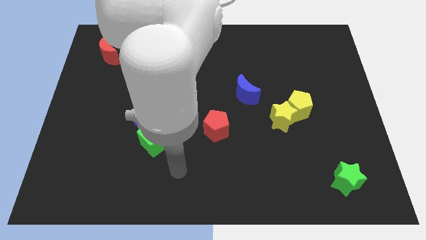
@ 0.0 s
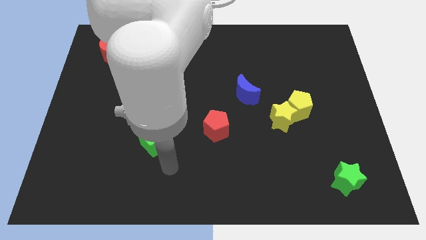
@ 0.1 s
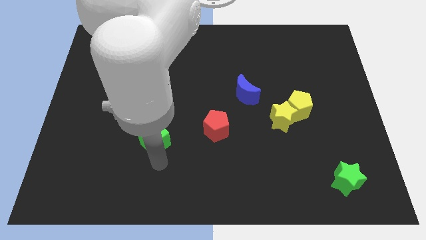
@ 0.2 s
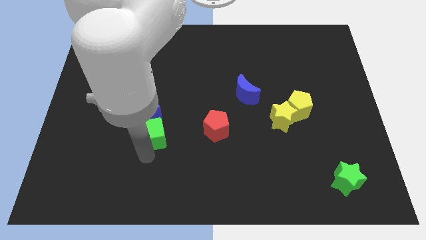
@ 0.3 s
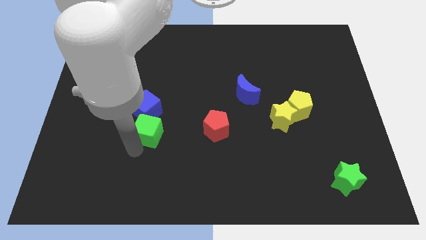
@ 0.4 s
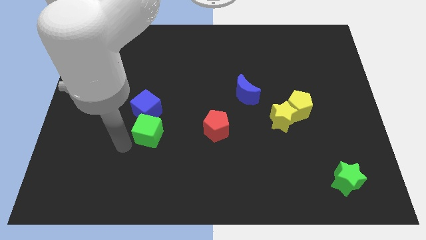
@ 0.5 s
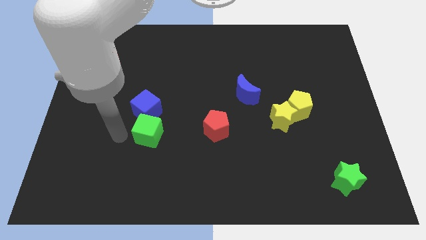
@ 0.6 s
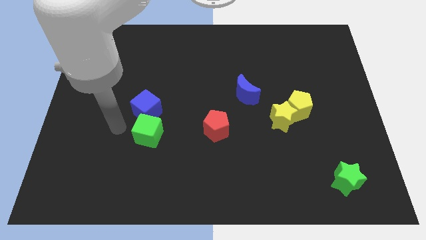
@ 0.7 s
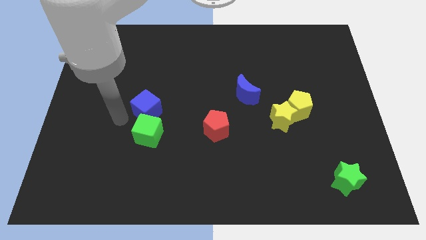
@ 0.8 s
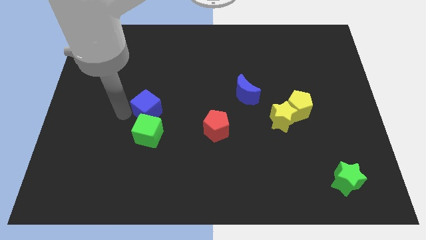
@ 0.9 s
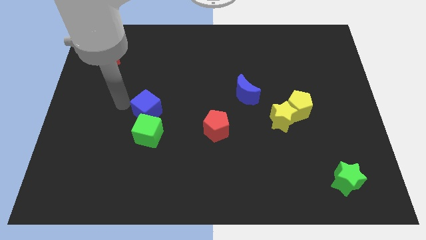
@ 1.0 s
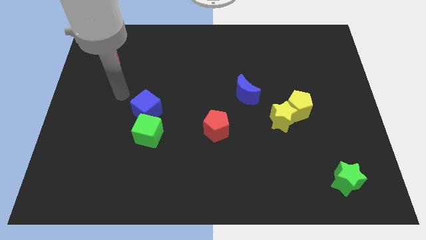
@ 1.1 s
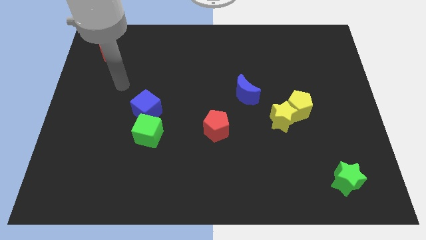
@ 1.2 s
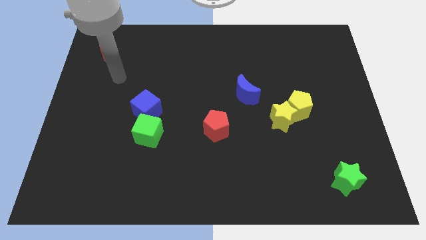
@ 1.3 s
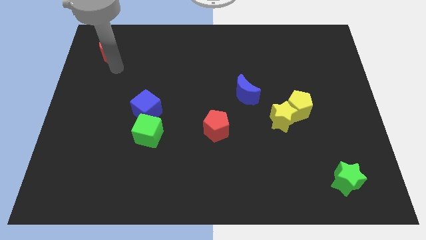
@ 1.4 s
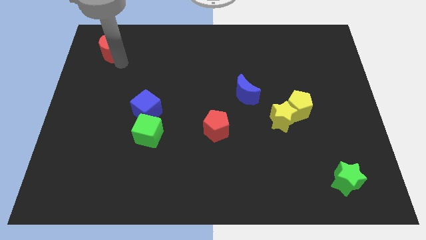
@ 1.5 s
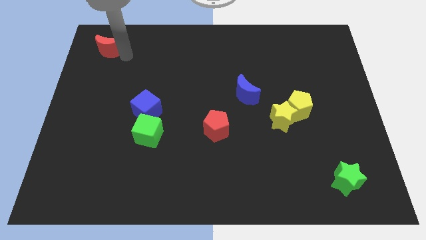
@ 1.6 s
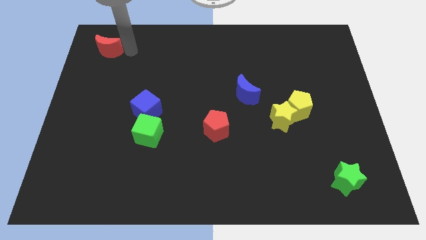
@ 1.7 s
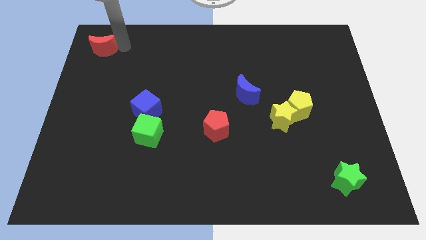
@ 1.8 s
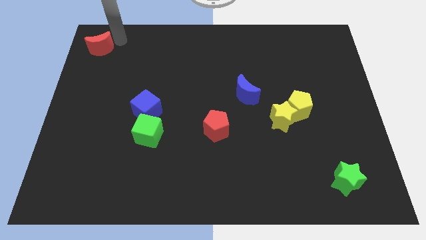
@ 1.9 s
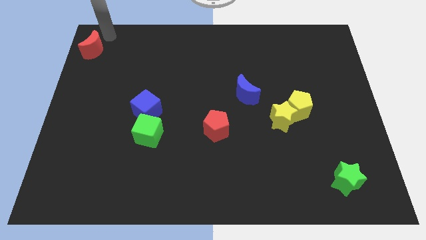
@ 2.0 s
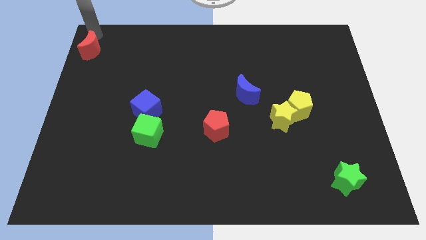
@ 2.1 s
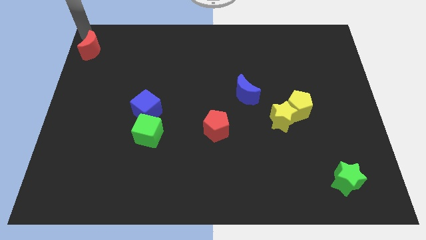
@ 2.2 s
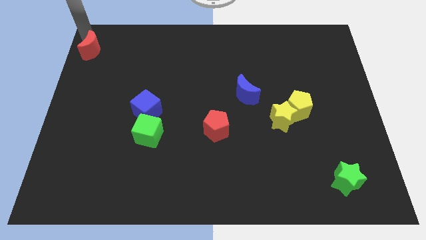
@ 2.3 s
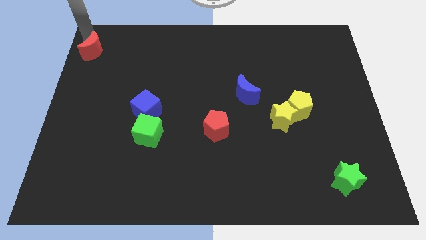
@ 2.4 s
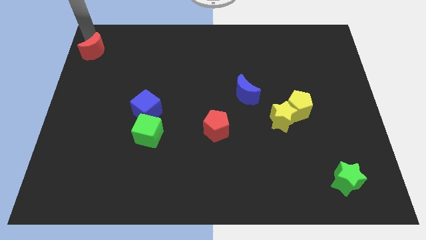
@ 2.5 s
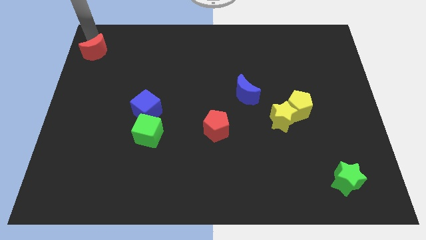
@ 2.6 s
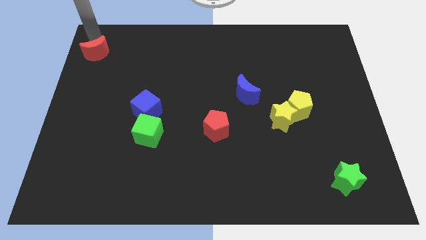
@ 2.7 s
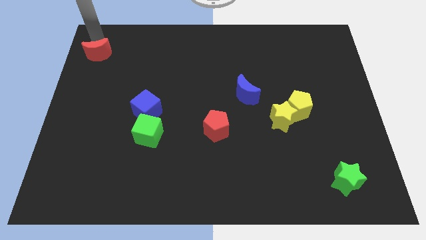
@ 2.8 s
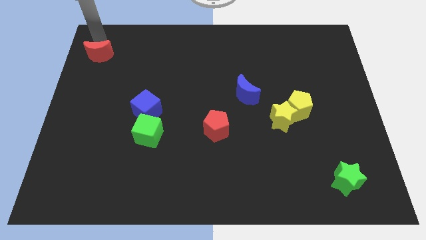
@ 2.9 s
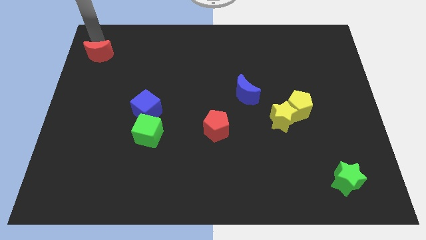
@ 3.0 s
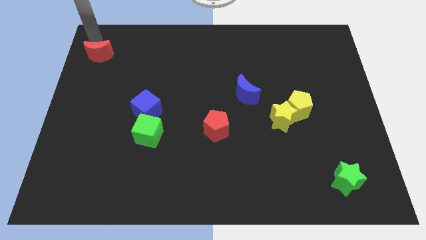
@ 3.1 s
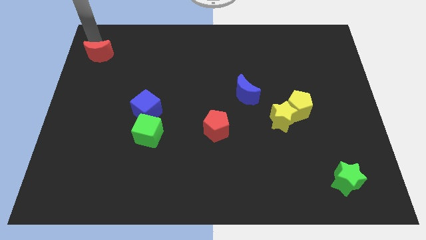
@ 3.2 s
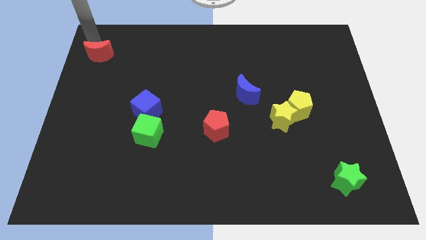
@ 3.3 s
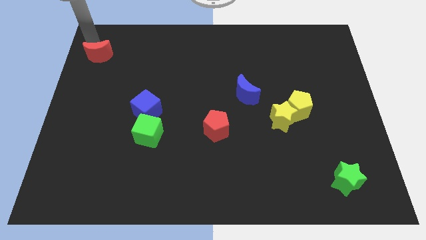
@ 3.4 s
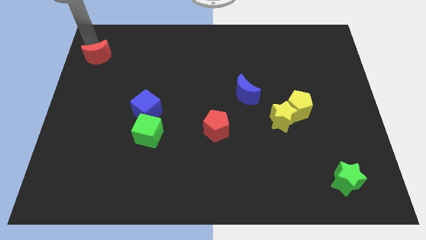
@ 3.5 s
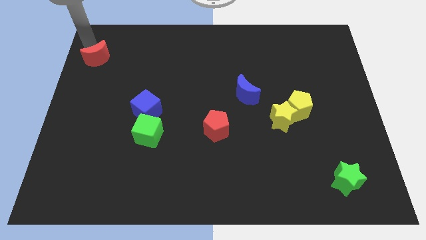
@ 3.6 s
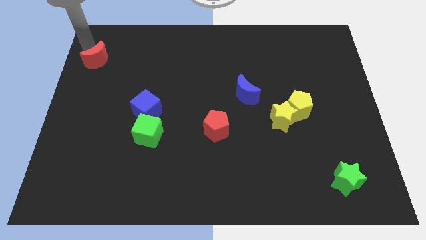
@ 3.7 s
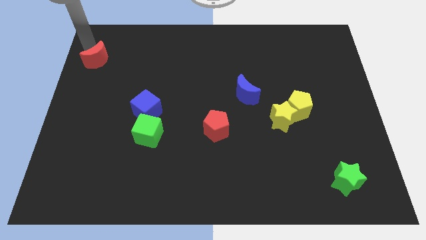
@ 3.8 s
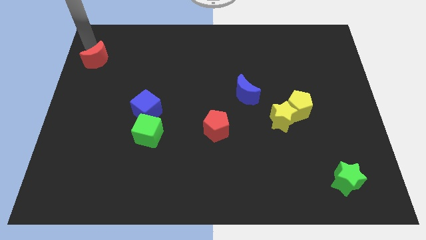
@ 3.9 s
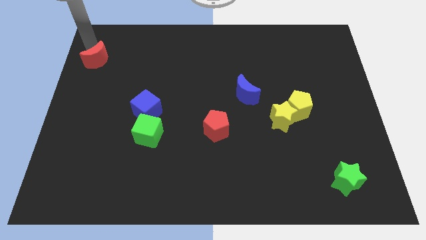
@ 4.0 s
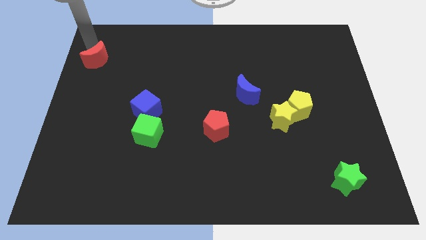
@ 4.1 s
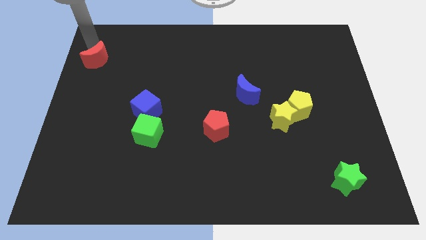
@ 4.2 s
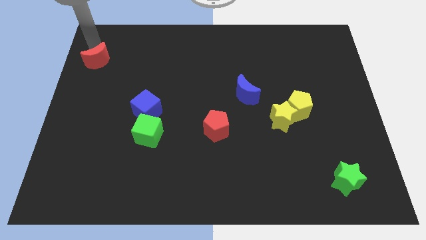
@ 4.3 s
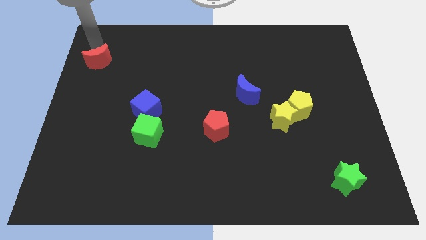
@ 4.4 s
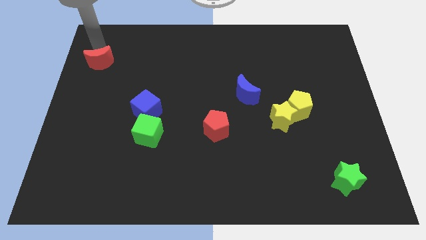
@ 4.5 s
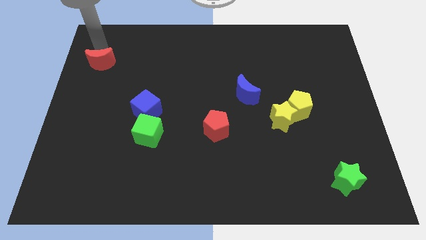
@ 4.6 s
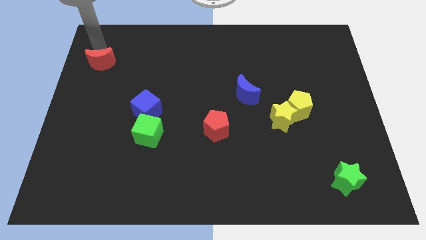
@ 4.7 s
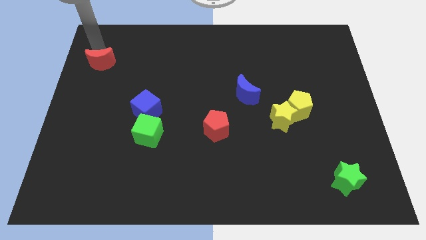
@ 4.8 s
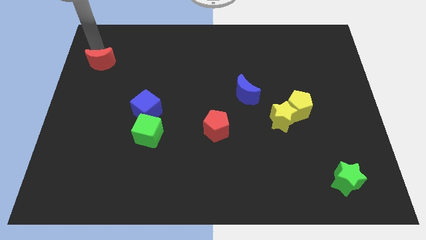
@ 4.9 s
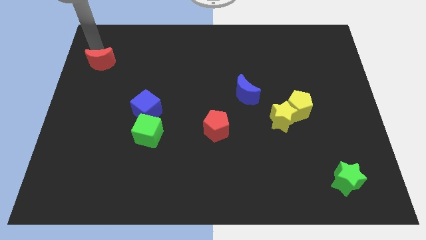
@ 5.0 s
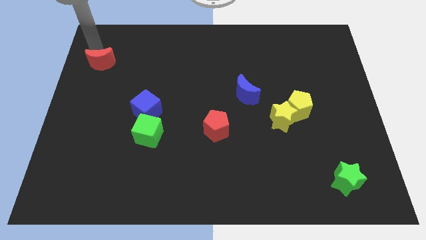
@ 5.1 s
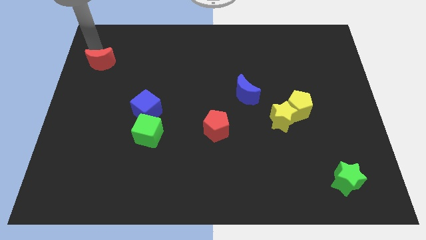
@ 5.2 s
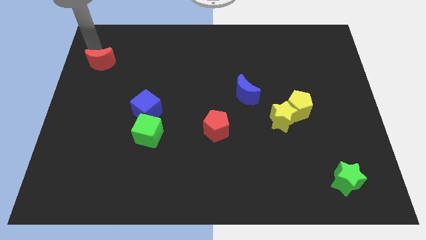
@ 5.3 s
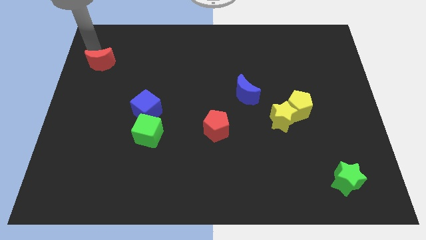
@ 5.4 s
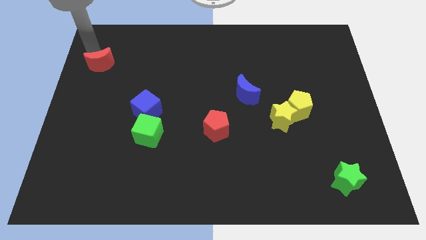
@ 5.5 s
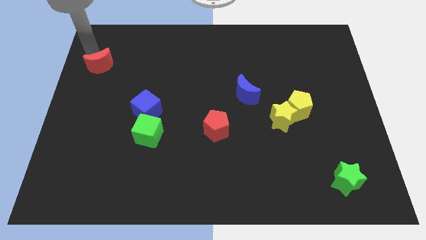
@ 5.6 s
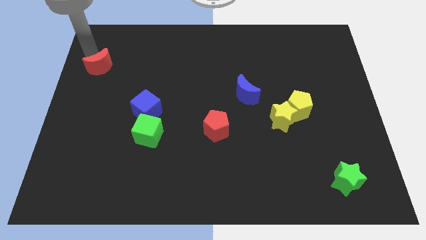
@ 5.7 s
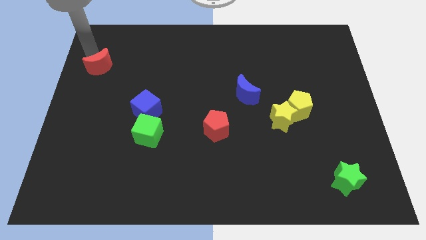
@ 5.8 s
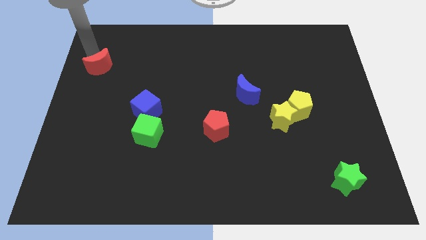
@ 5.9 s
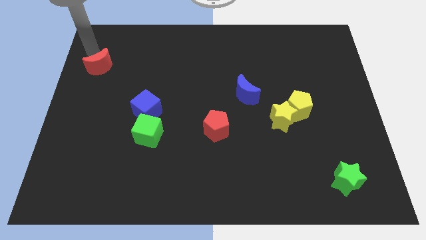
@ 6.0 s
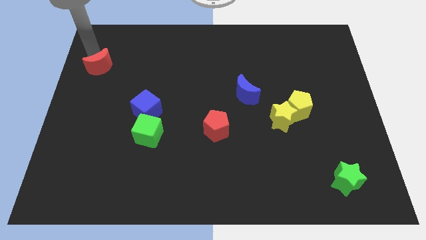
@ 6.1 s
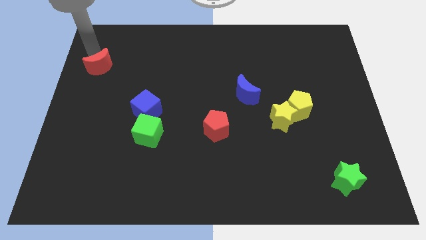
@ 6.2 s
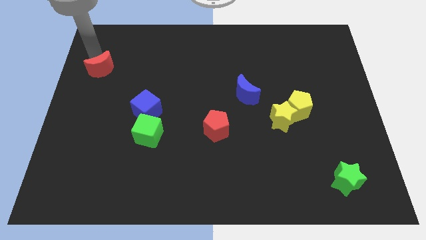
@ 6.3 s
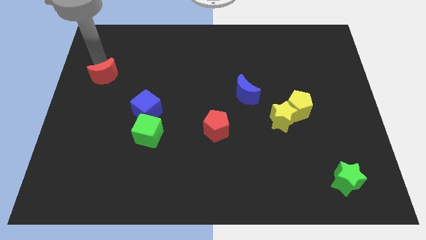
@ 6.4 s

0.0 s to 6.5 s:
slightly slide the red moon down

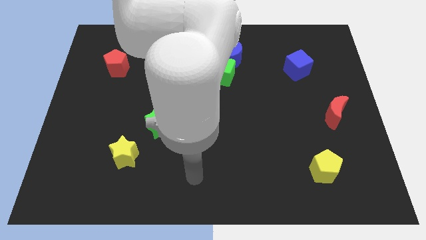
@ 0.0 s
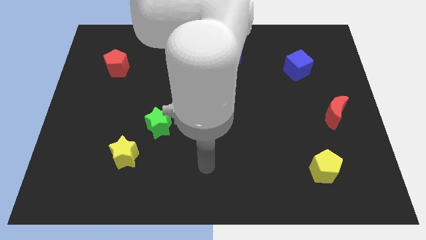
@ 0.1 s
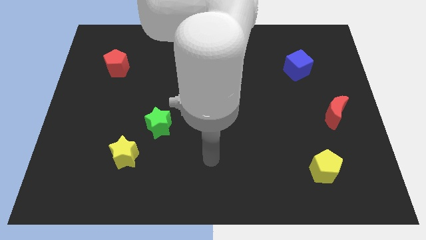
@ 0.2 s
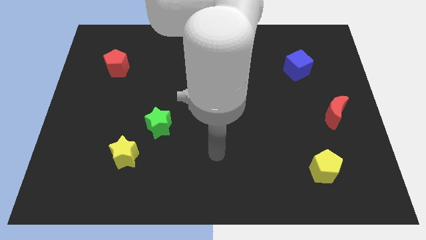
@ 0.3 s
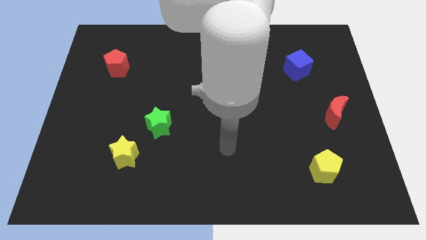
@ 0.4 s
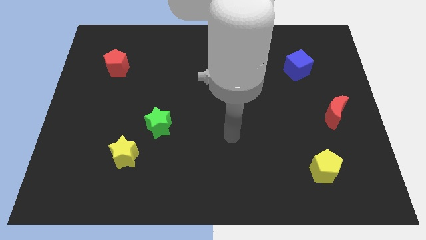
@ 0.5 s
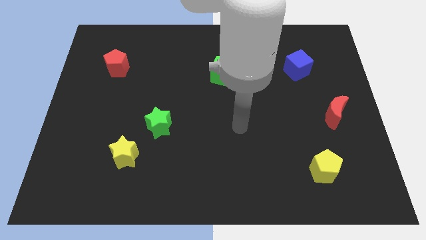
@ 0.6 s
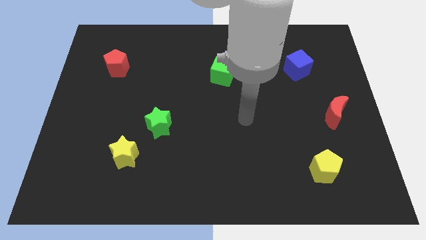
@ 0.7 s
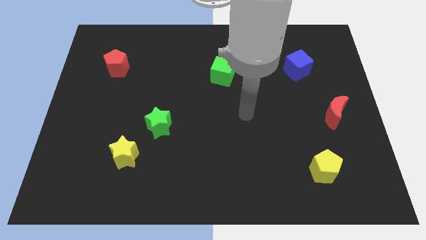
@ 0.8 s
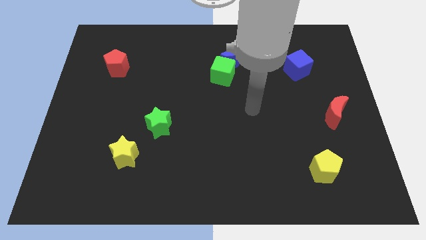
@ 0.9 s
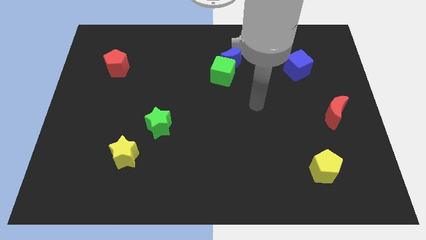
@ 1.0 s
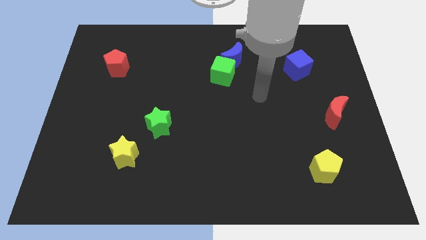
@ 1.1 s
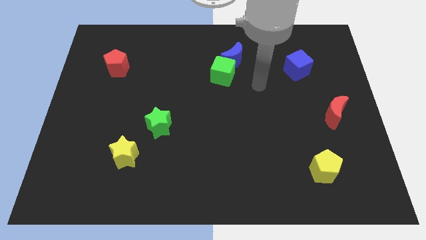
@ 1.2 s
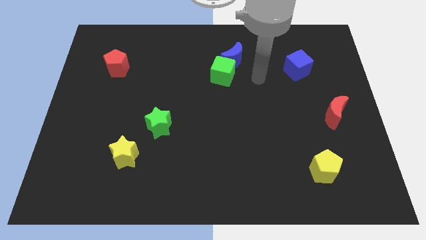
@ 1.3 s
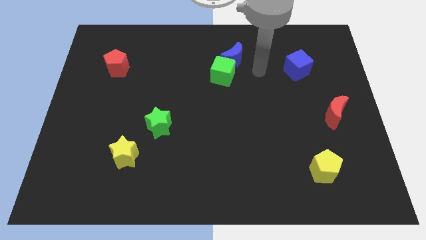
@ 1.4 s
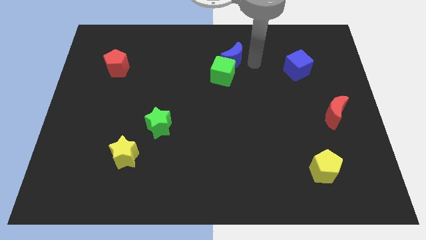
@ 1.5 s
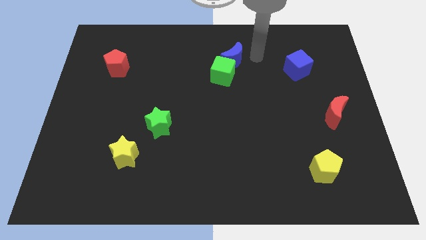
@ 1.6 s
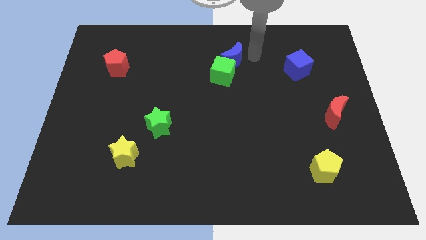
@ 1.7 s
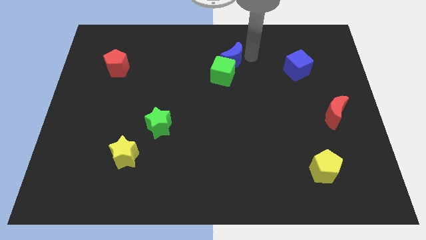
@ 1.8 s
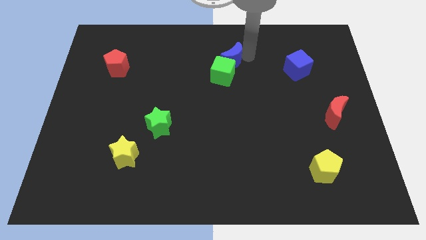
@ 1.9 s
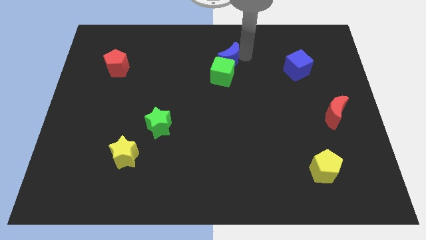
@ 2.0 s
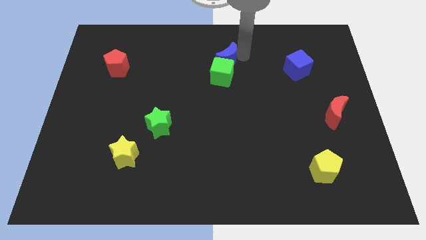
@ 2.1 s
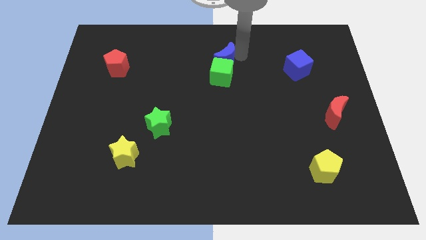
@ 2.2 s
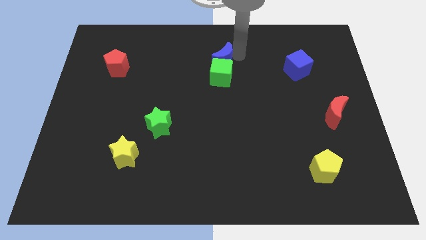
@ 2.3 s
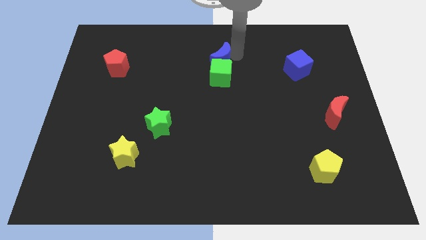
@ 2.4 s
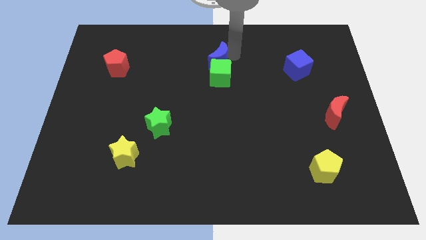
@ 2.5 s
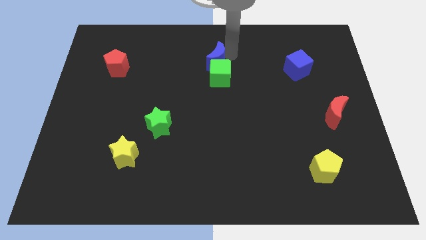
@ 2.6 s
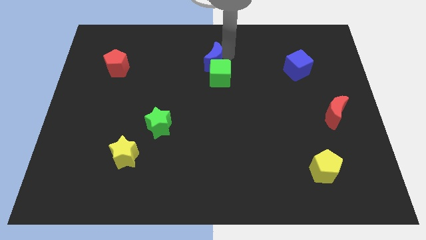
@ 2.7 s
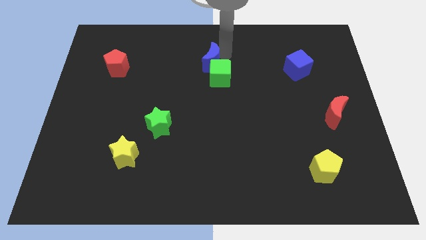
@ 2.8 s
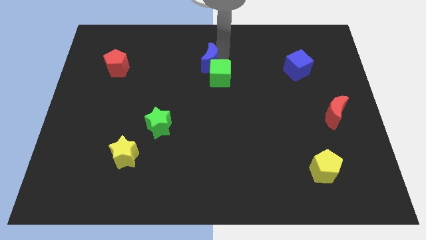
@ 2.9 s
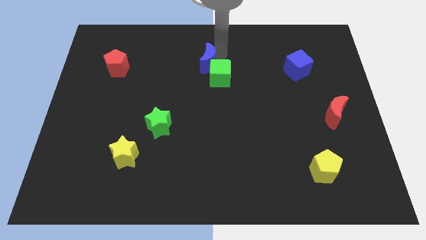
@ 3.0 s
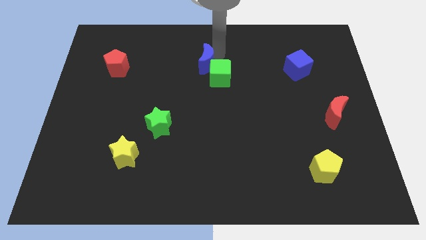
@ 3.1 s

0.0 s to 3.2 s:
push the blue moon to the left somewhat
